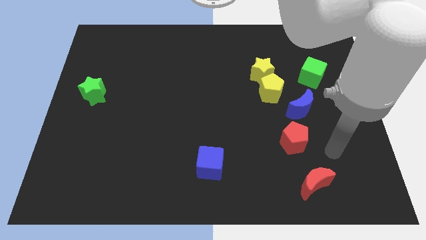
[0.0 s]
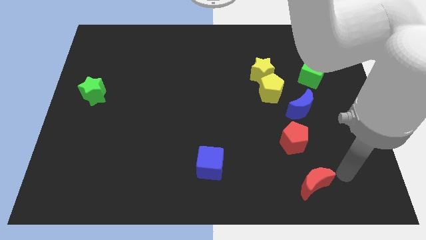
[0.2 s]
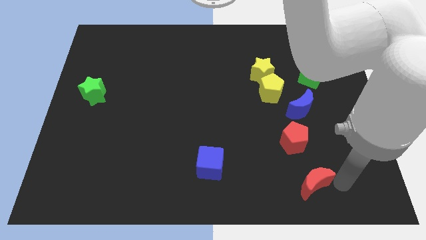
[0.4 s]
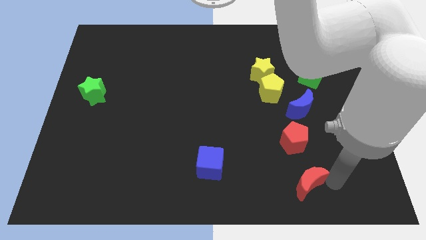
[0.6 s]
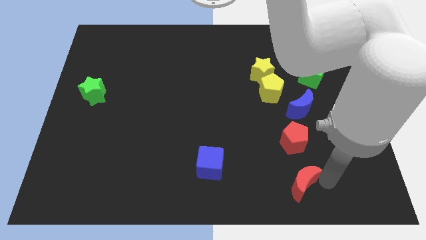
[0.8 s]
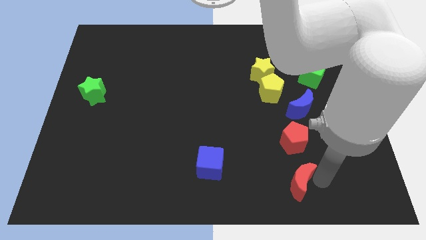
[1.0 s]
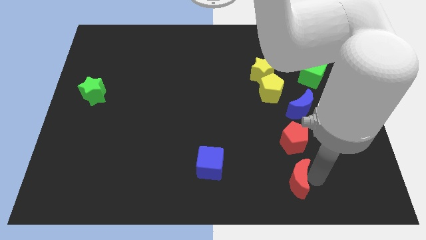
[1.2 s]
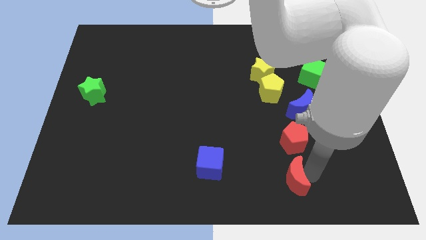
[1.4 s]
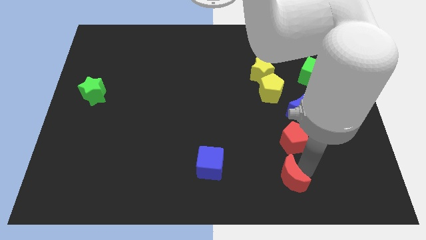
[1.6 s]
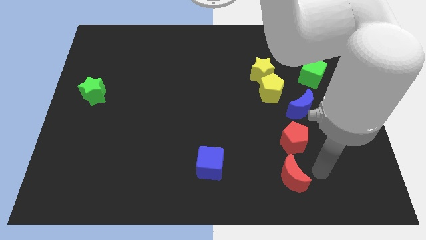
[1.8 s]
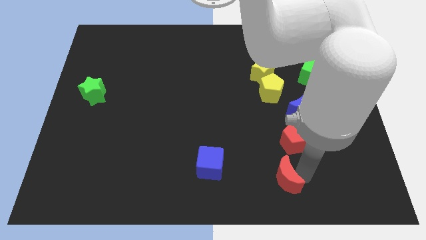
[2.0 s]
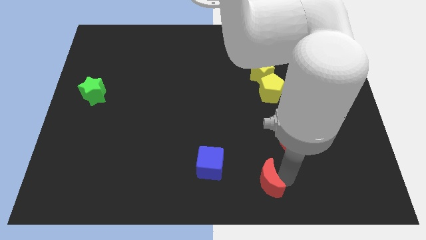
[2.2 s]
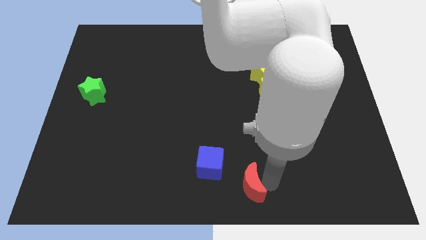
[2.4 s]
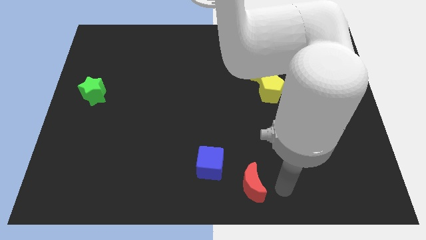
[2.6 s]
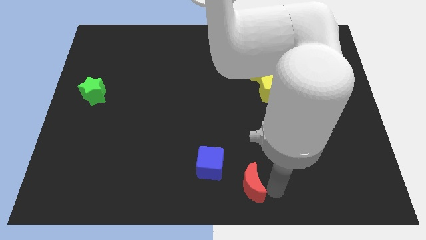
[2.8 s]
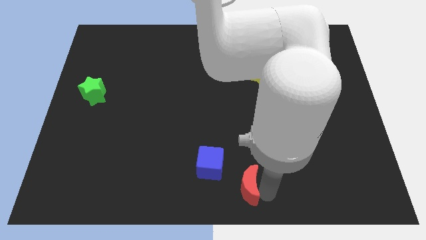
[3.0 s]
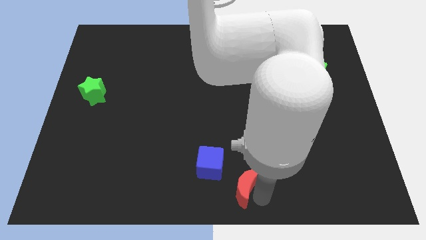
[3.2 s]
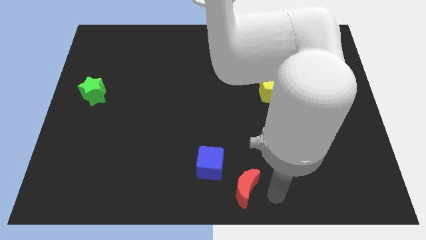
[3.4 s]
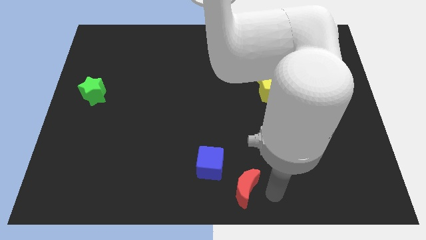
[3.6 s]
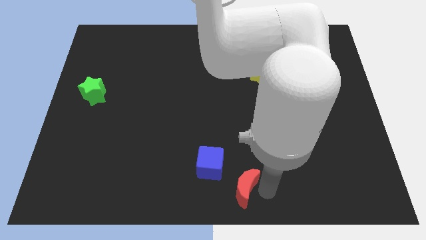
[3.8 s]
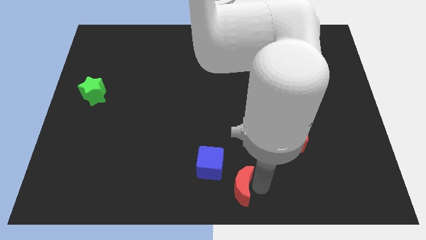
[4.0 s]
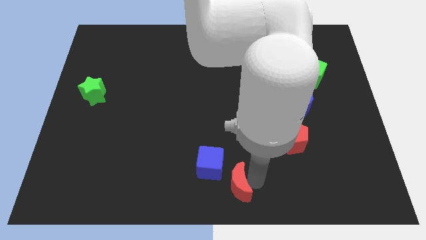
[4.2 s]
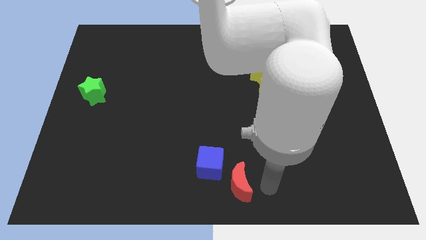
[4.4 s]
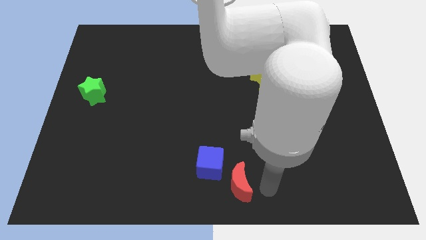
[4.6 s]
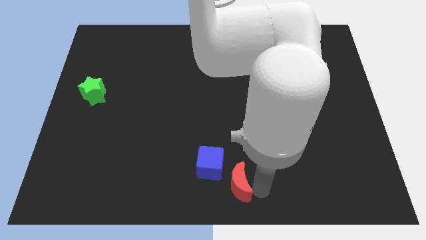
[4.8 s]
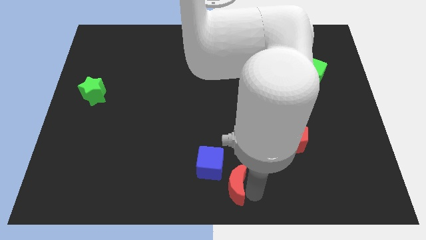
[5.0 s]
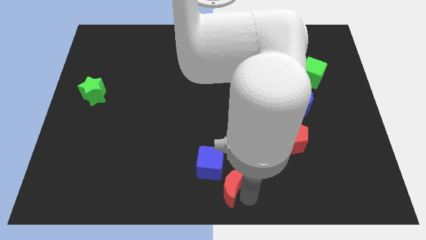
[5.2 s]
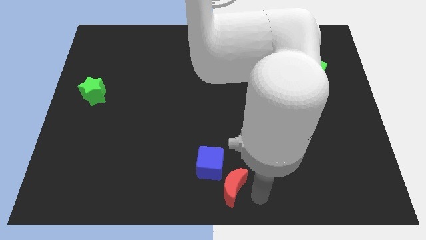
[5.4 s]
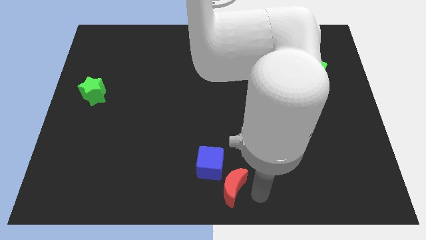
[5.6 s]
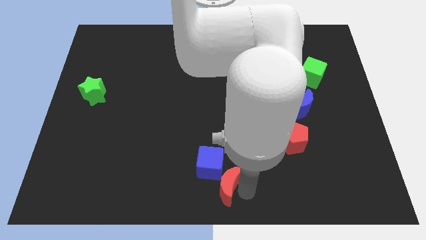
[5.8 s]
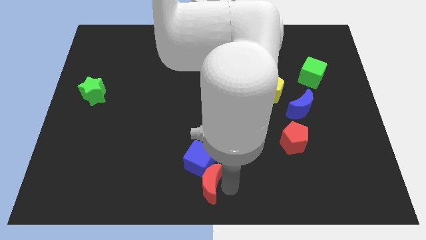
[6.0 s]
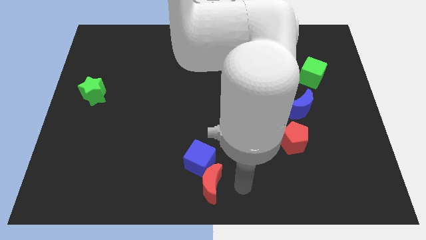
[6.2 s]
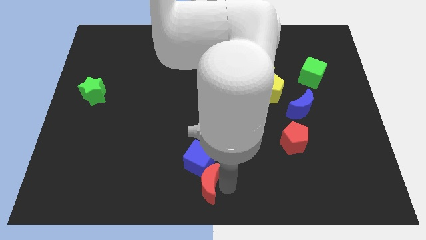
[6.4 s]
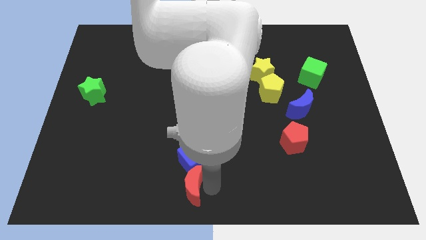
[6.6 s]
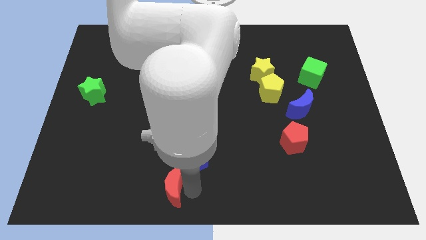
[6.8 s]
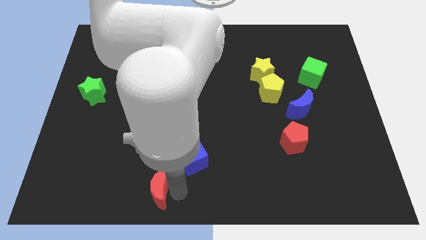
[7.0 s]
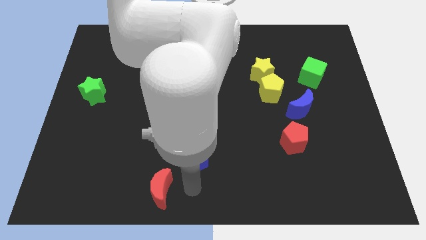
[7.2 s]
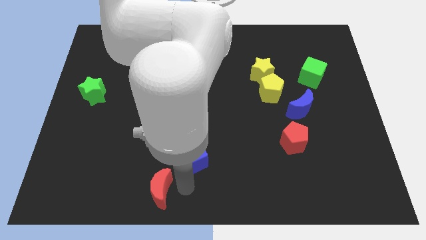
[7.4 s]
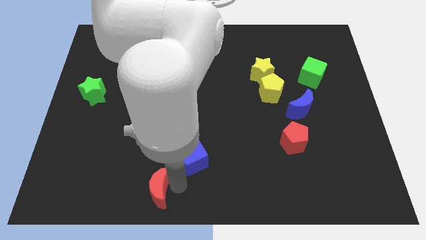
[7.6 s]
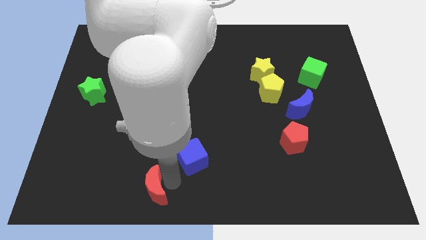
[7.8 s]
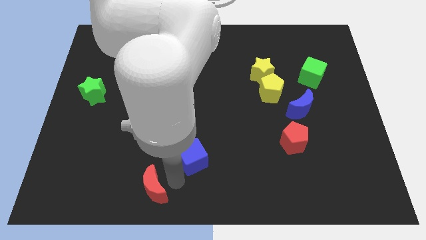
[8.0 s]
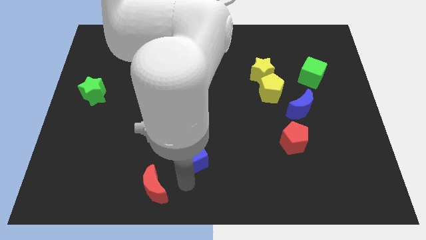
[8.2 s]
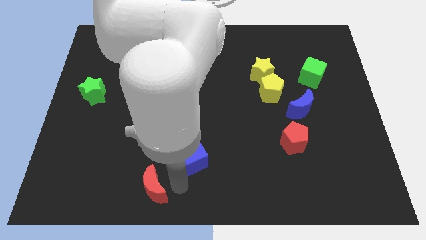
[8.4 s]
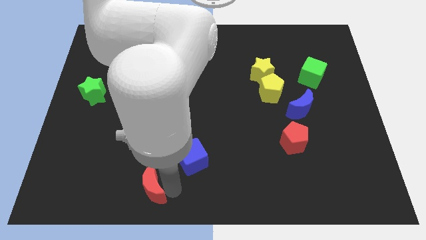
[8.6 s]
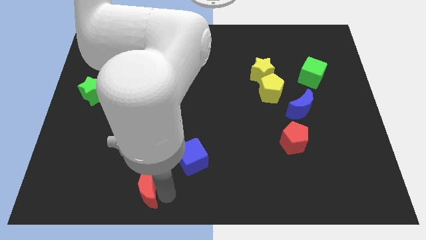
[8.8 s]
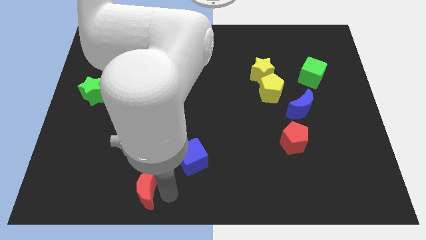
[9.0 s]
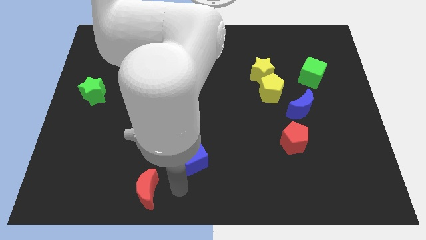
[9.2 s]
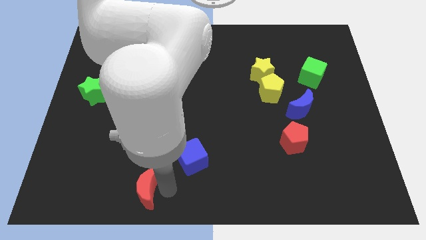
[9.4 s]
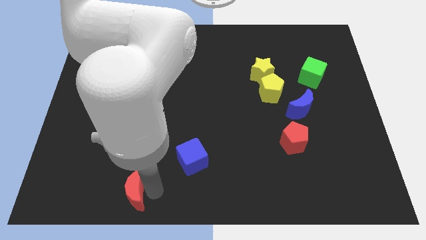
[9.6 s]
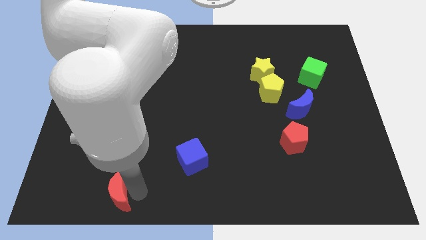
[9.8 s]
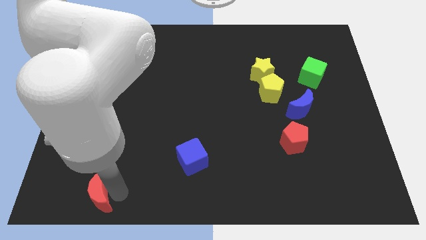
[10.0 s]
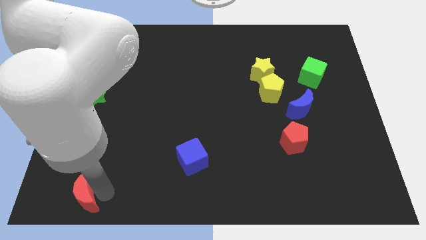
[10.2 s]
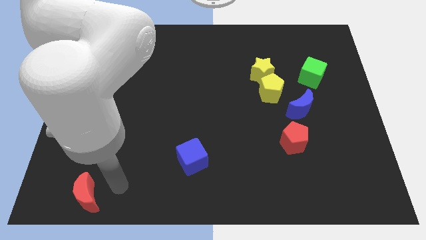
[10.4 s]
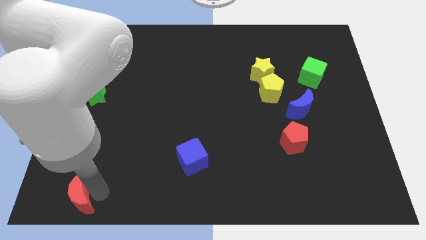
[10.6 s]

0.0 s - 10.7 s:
move the red moon to the bottom left of the board

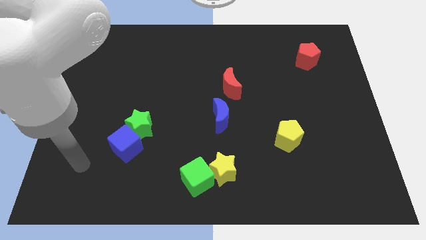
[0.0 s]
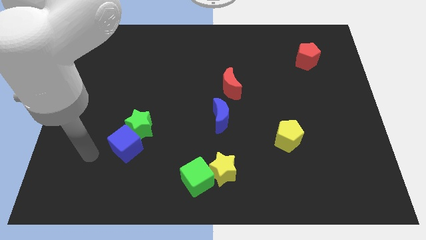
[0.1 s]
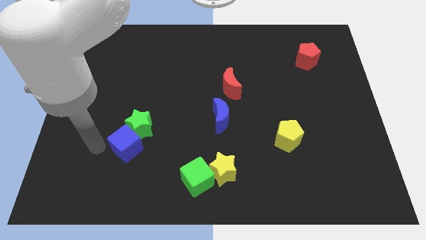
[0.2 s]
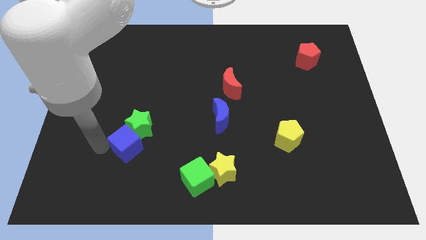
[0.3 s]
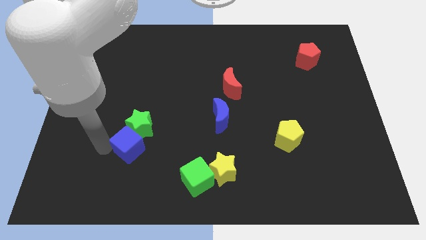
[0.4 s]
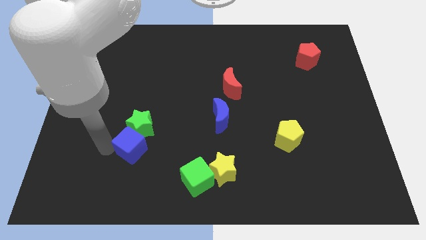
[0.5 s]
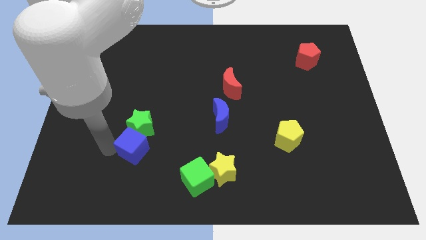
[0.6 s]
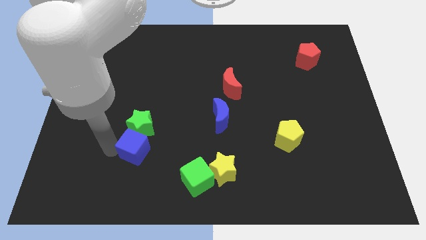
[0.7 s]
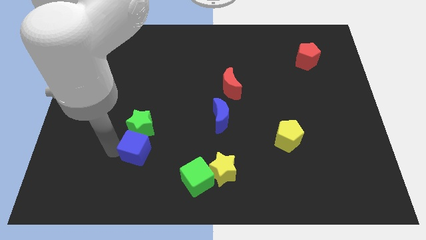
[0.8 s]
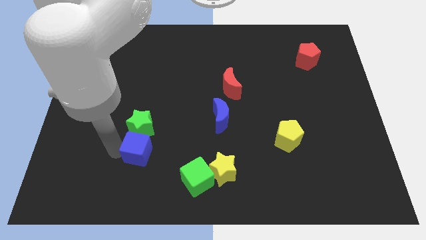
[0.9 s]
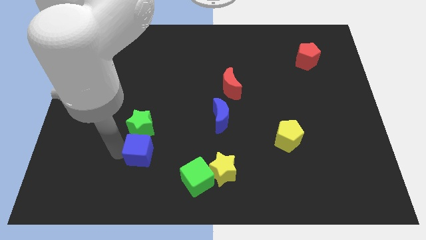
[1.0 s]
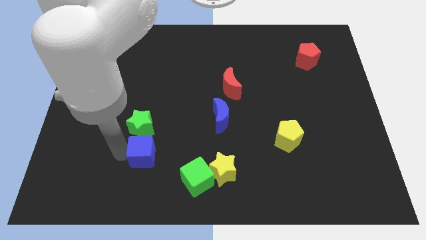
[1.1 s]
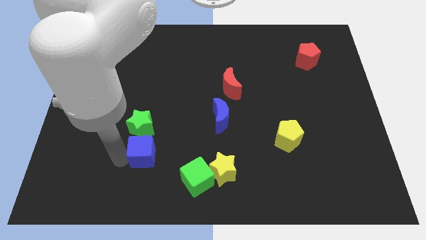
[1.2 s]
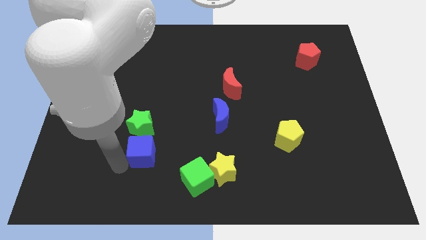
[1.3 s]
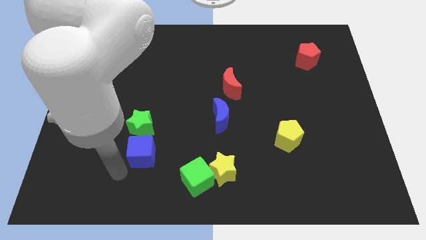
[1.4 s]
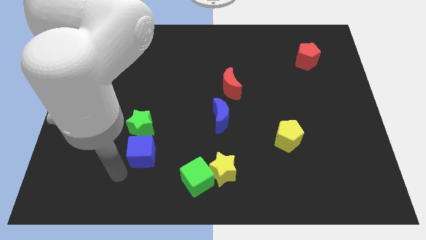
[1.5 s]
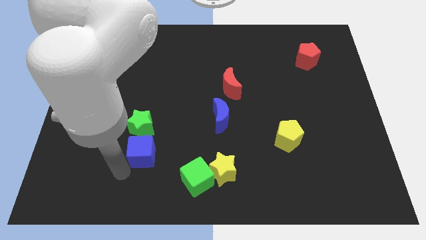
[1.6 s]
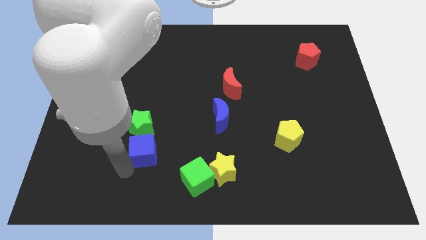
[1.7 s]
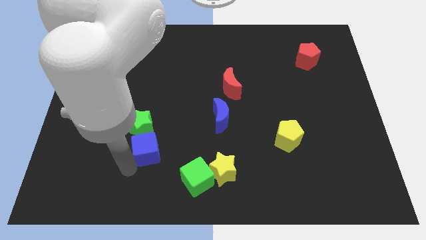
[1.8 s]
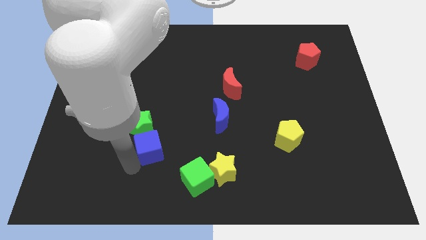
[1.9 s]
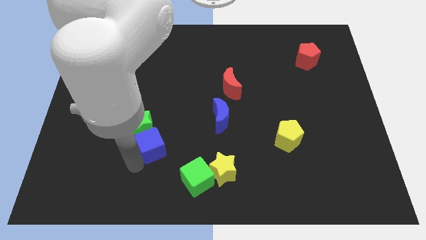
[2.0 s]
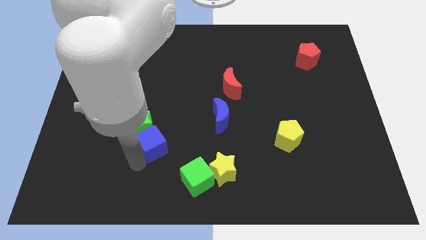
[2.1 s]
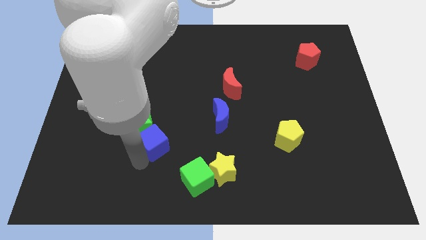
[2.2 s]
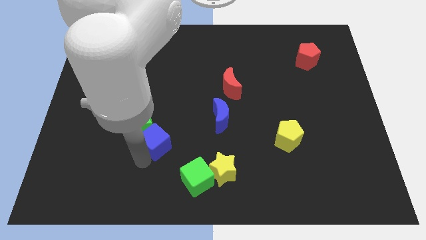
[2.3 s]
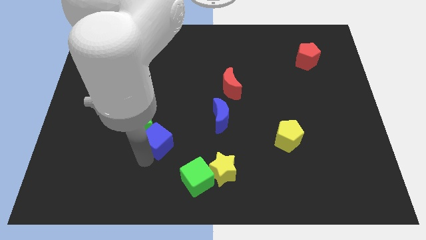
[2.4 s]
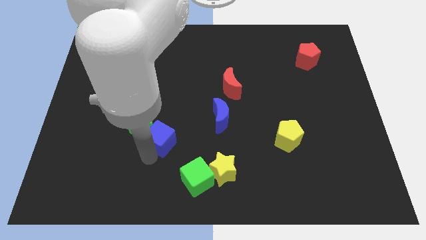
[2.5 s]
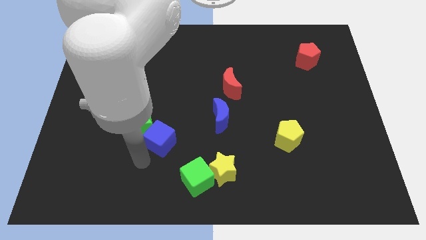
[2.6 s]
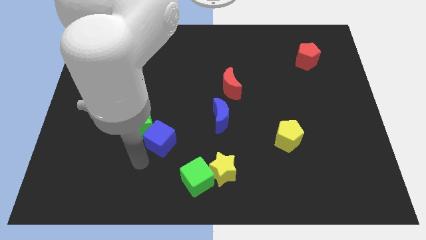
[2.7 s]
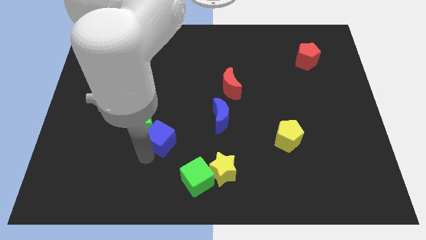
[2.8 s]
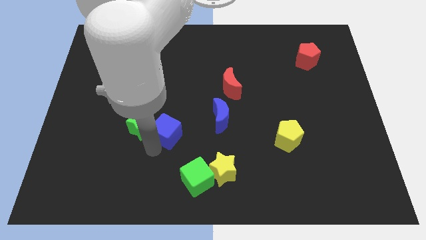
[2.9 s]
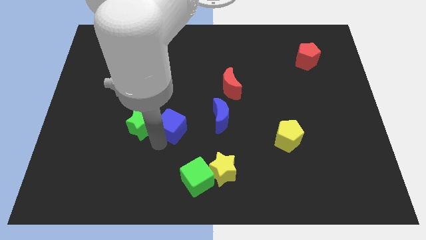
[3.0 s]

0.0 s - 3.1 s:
push the blue cube to the center of the board
